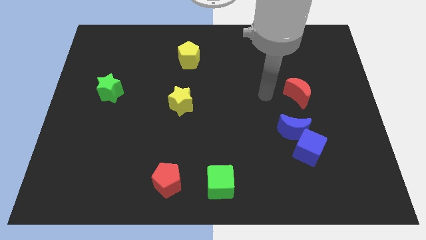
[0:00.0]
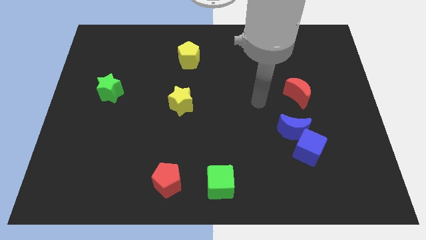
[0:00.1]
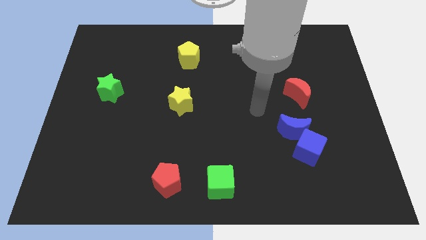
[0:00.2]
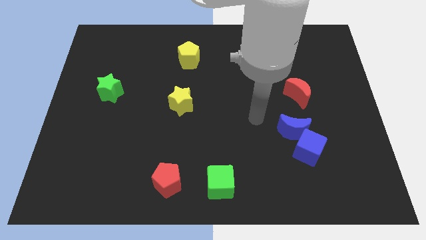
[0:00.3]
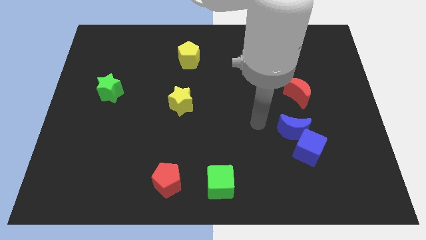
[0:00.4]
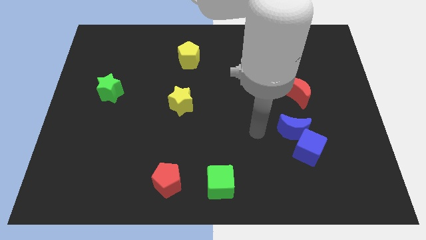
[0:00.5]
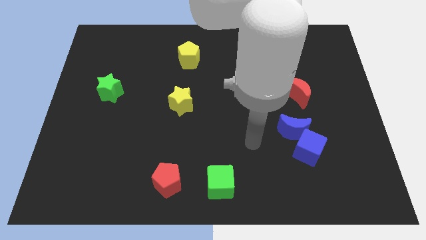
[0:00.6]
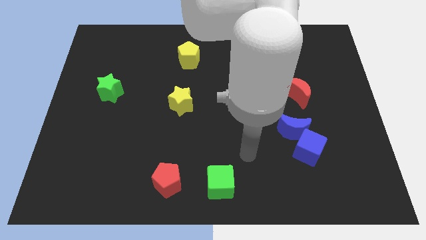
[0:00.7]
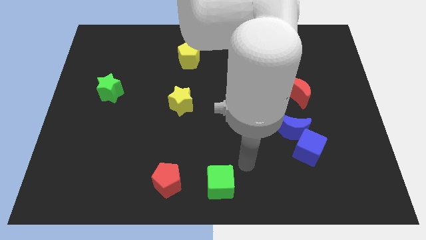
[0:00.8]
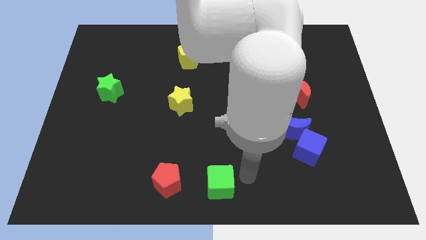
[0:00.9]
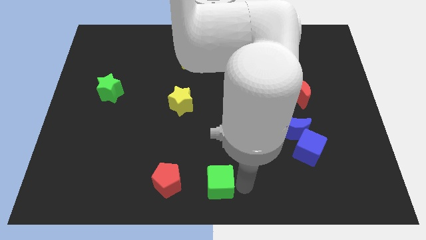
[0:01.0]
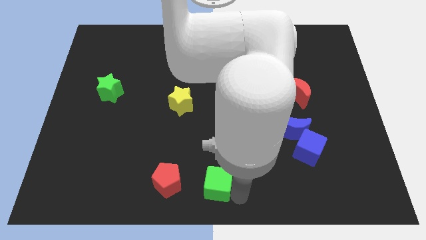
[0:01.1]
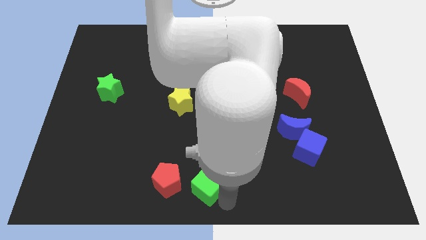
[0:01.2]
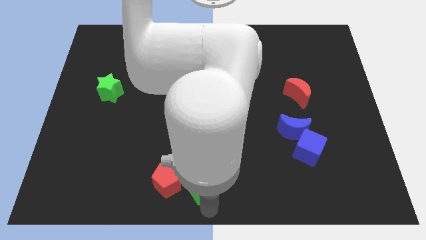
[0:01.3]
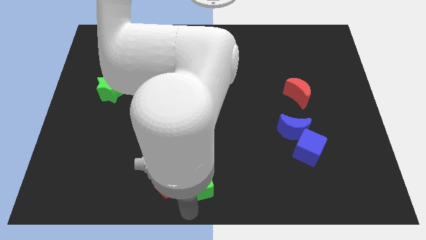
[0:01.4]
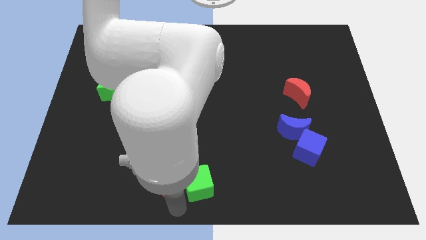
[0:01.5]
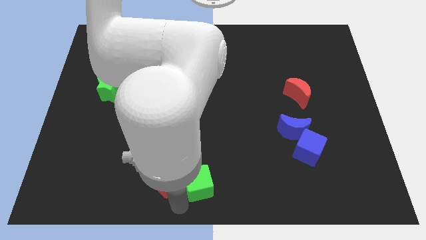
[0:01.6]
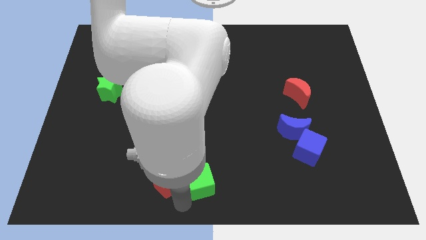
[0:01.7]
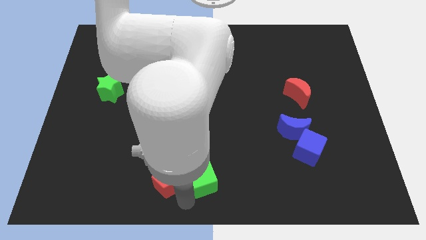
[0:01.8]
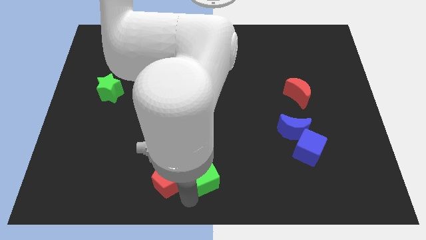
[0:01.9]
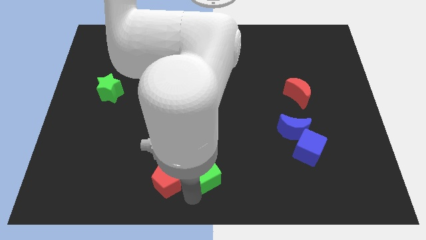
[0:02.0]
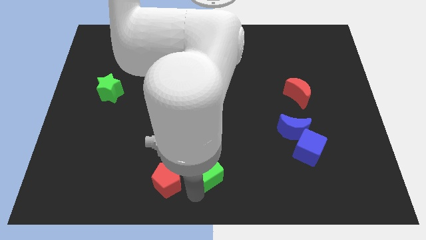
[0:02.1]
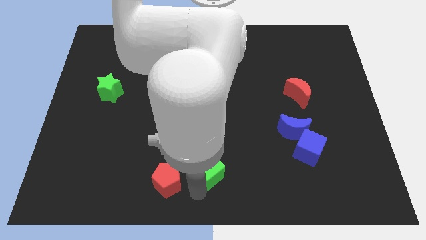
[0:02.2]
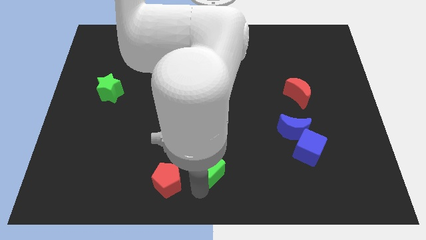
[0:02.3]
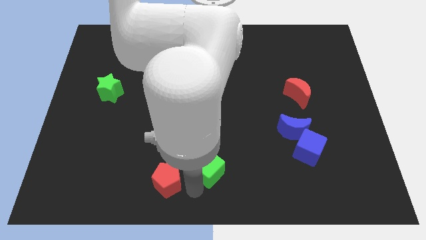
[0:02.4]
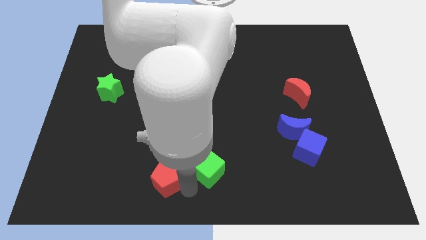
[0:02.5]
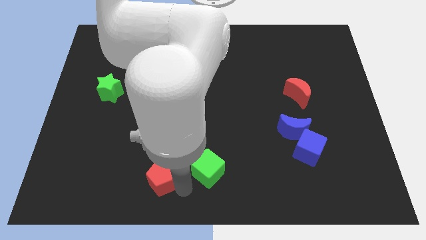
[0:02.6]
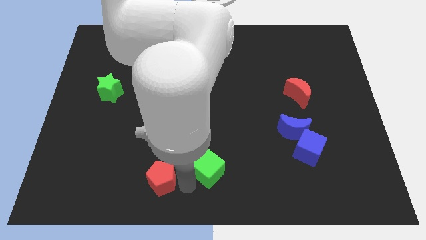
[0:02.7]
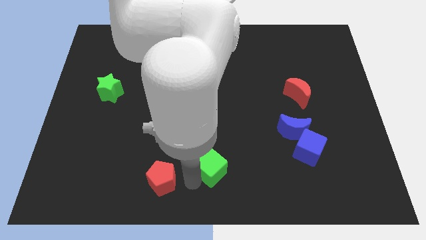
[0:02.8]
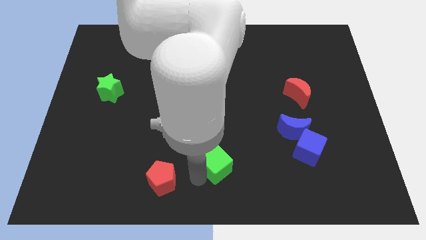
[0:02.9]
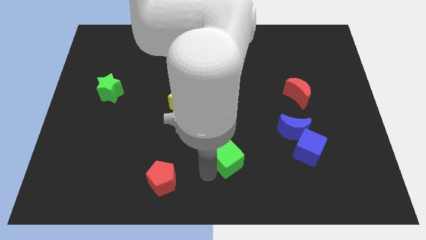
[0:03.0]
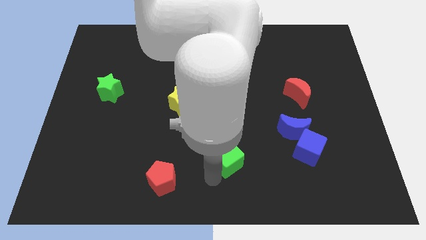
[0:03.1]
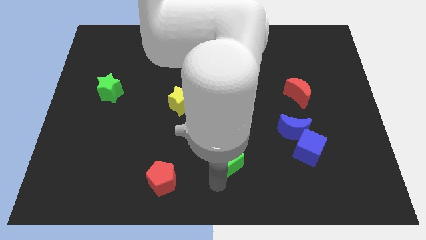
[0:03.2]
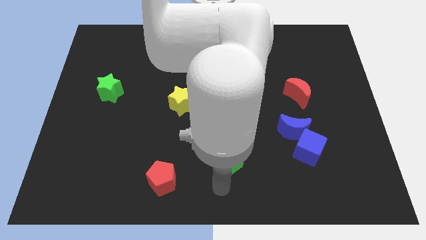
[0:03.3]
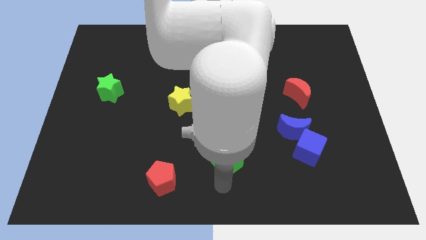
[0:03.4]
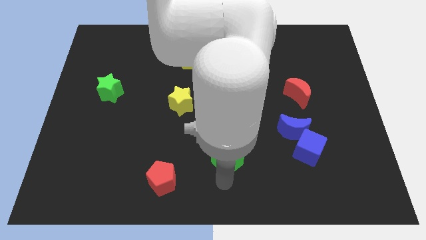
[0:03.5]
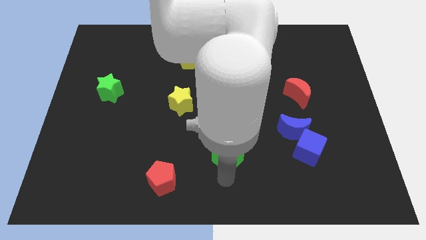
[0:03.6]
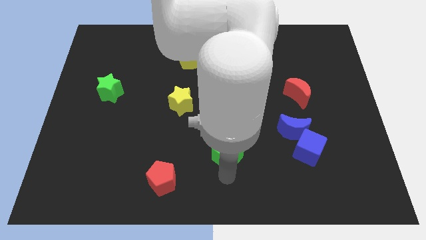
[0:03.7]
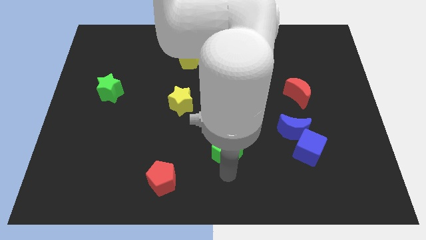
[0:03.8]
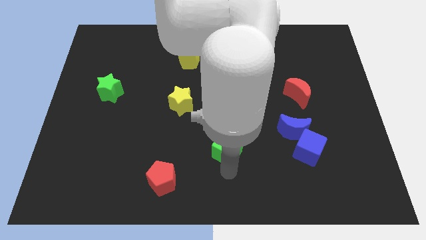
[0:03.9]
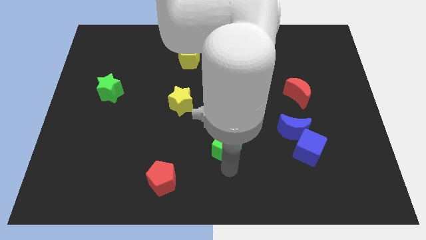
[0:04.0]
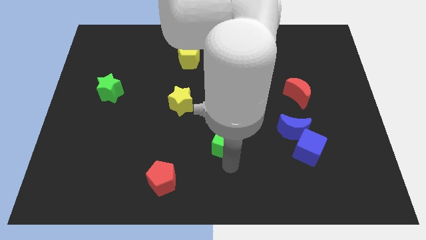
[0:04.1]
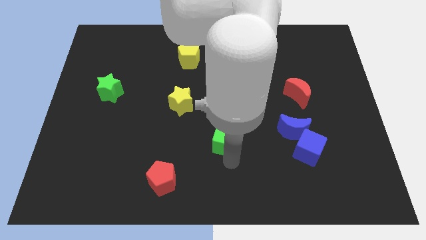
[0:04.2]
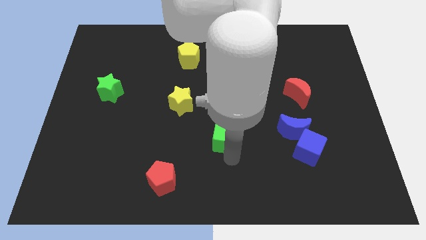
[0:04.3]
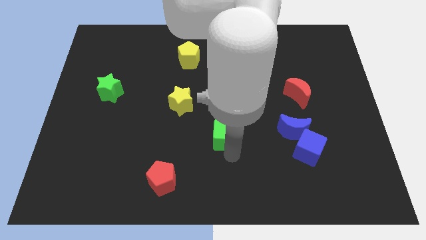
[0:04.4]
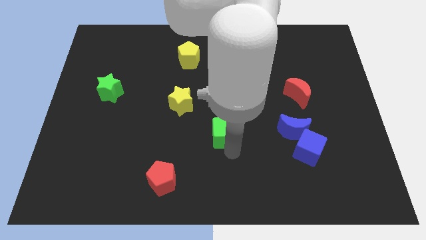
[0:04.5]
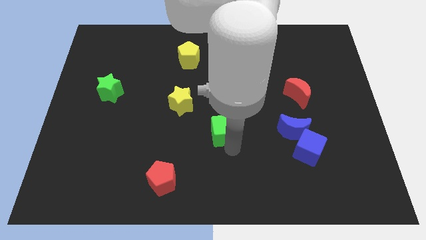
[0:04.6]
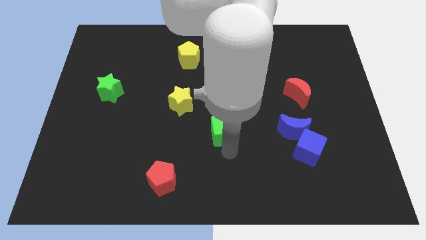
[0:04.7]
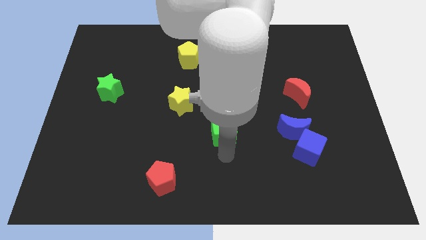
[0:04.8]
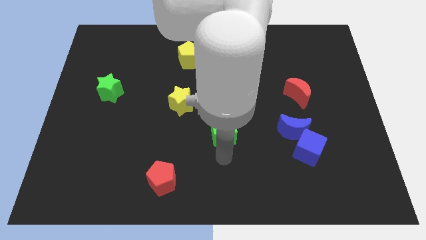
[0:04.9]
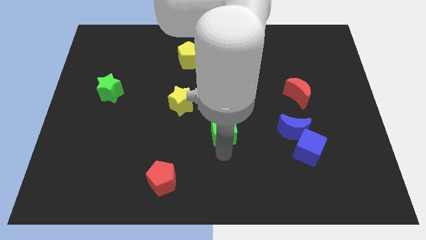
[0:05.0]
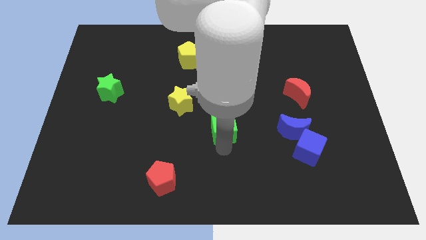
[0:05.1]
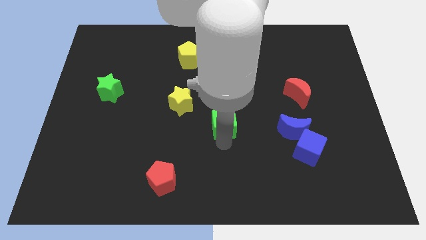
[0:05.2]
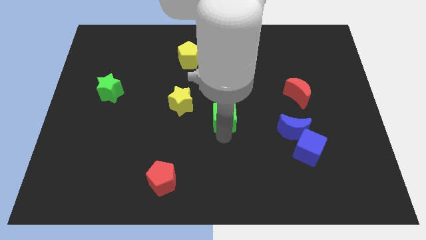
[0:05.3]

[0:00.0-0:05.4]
slide the green cube to the right side of the yellow star

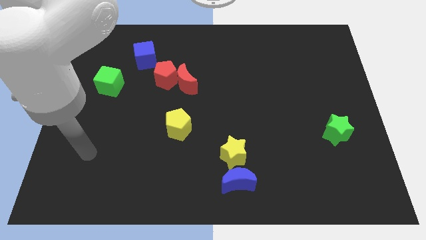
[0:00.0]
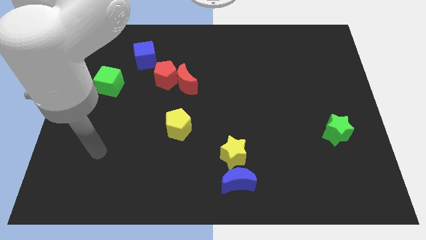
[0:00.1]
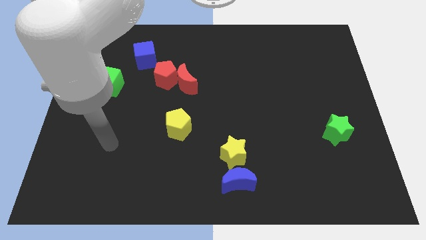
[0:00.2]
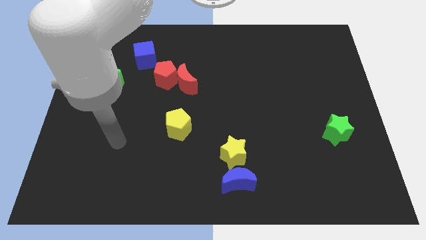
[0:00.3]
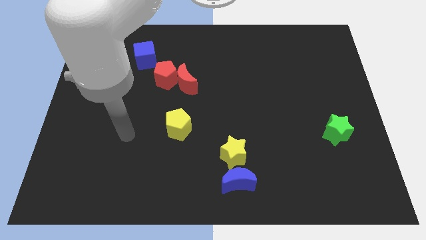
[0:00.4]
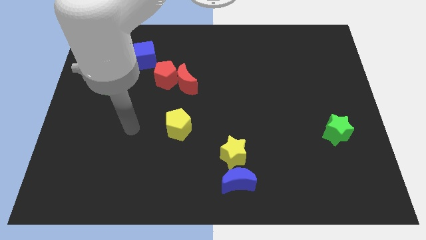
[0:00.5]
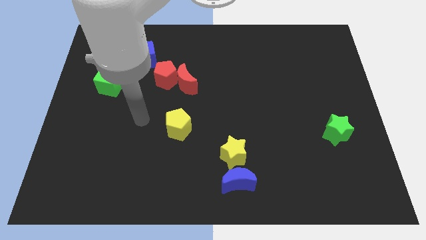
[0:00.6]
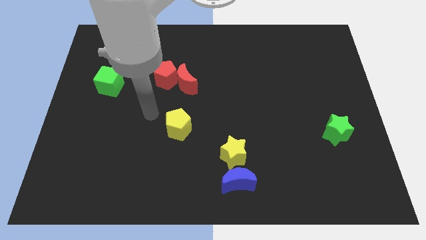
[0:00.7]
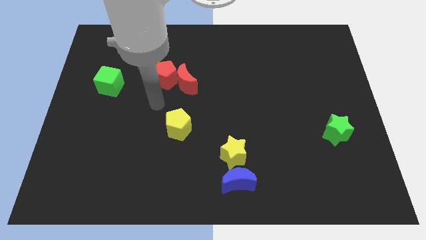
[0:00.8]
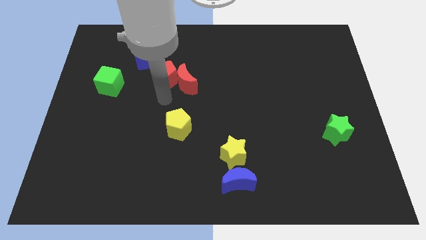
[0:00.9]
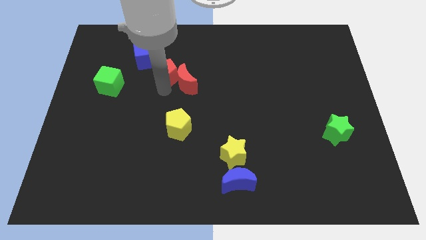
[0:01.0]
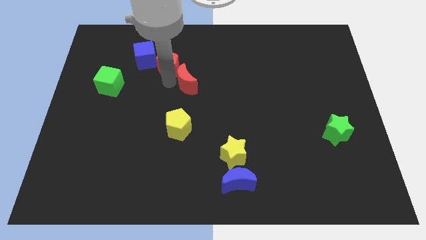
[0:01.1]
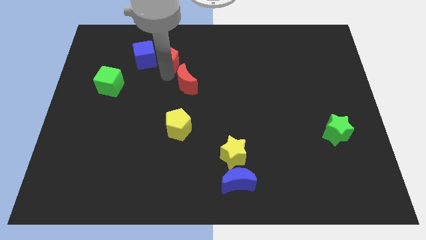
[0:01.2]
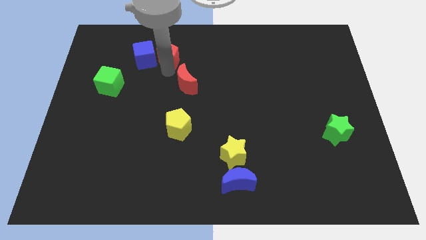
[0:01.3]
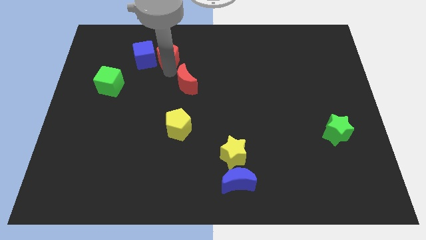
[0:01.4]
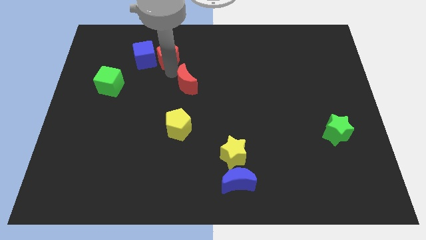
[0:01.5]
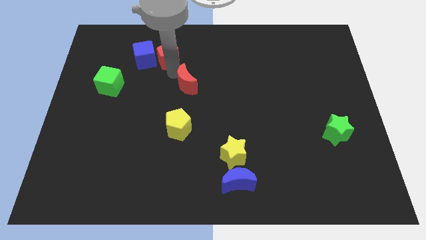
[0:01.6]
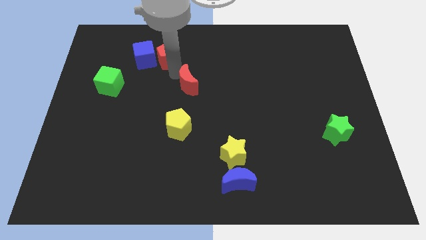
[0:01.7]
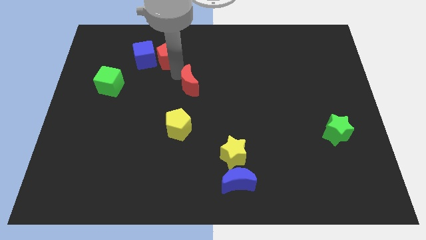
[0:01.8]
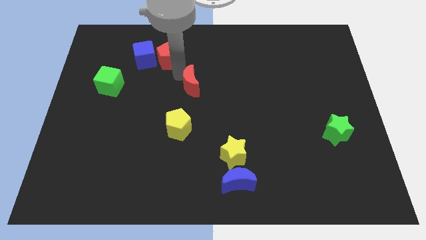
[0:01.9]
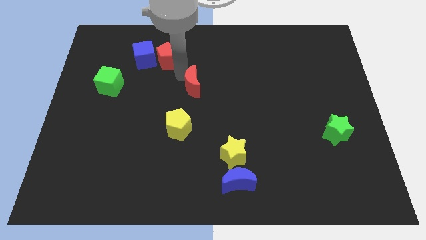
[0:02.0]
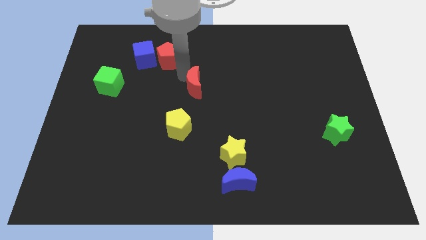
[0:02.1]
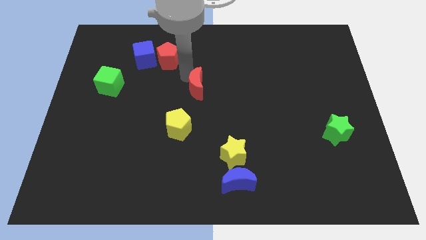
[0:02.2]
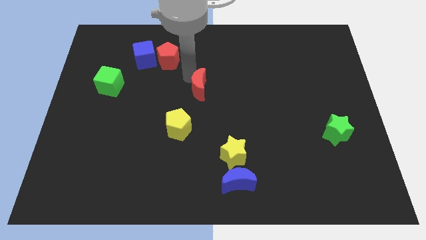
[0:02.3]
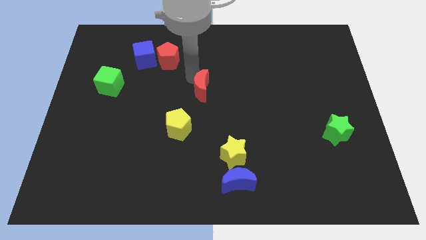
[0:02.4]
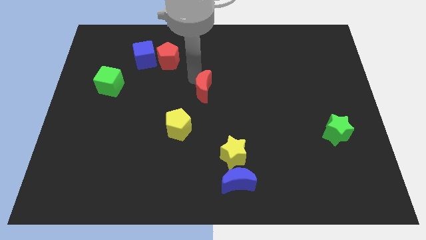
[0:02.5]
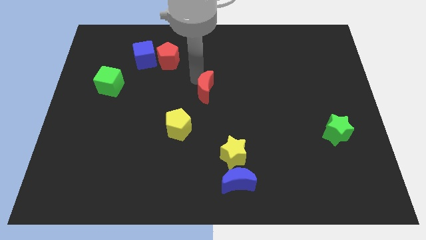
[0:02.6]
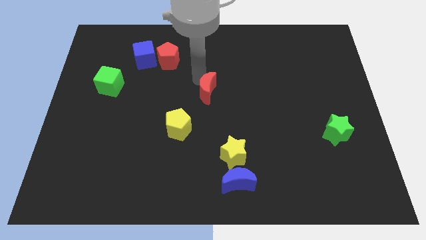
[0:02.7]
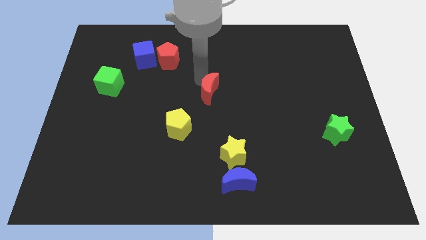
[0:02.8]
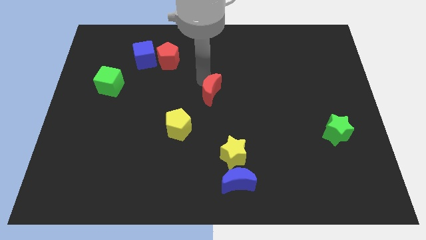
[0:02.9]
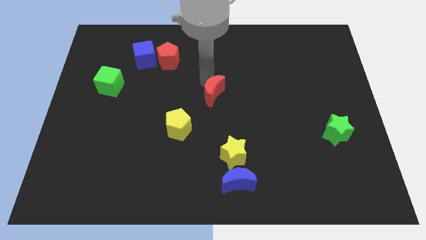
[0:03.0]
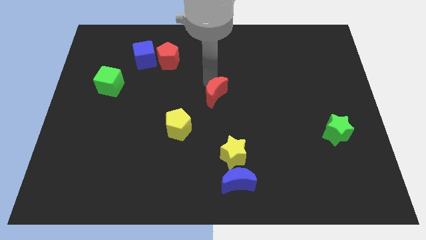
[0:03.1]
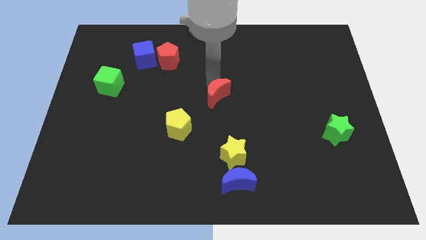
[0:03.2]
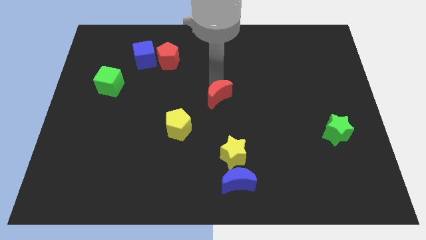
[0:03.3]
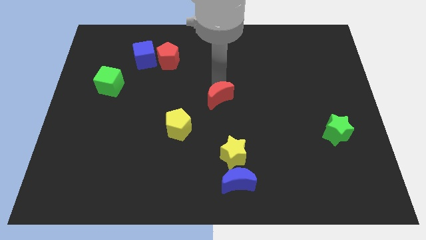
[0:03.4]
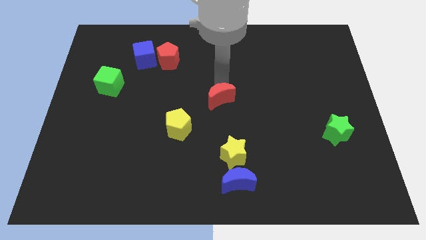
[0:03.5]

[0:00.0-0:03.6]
move the red moon to the top side of the yellow star
